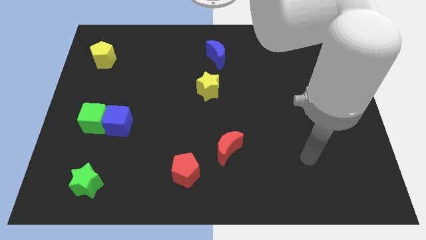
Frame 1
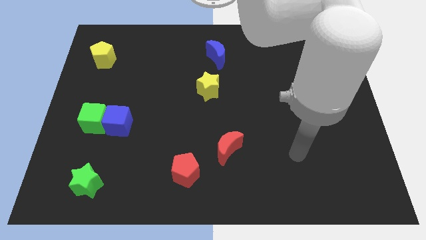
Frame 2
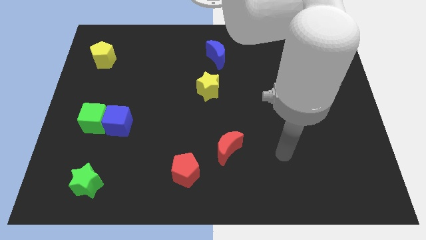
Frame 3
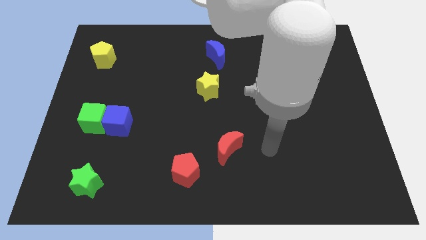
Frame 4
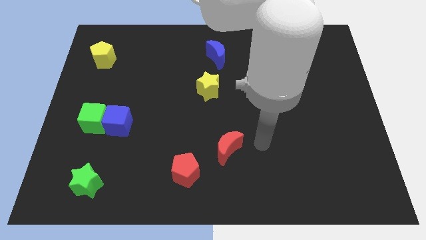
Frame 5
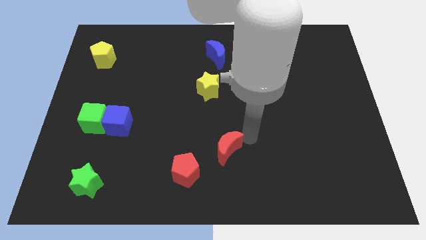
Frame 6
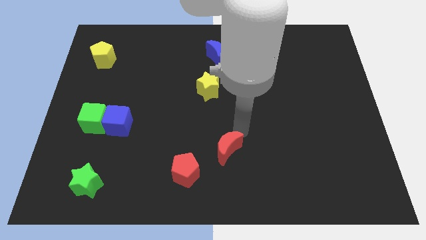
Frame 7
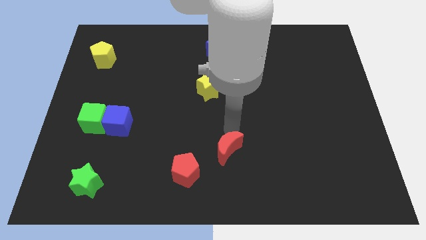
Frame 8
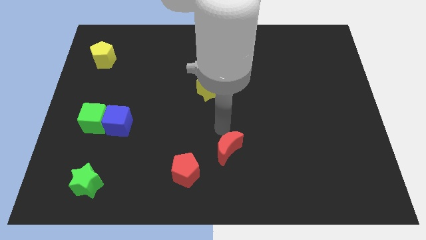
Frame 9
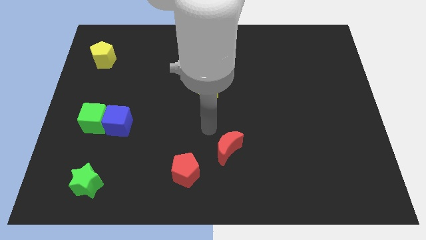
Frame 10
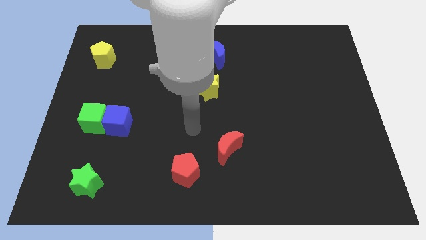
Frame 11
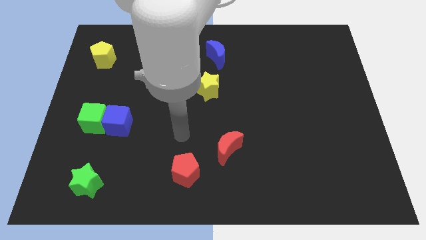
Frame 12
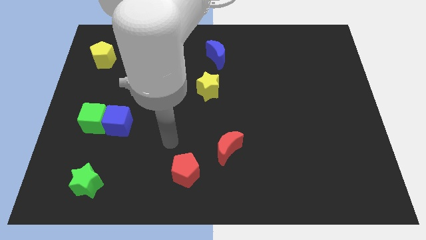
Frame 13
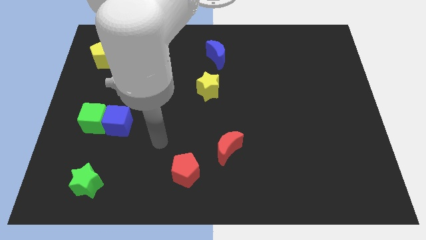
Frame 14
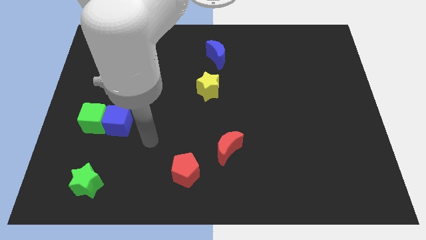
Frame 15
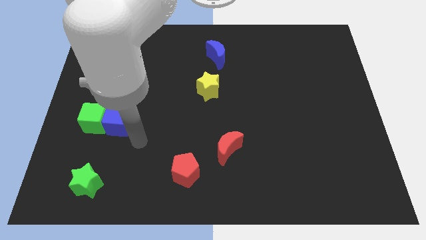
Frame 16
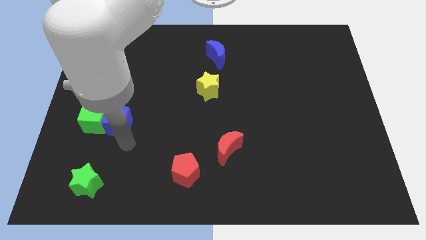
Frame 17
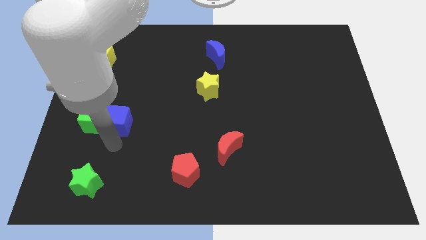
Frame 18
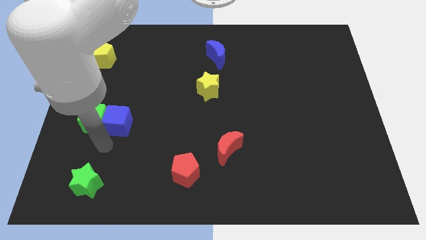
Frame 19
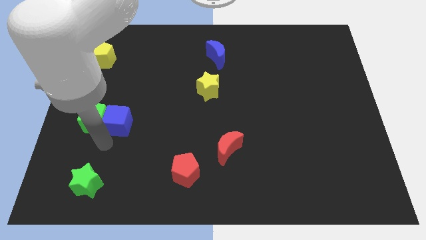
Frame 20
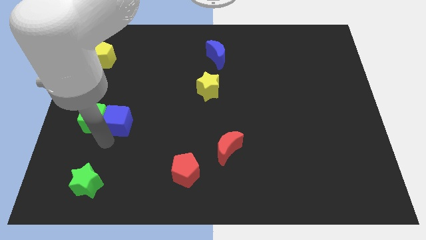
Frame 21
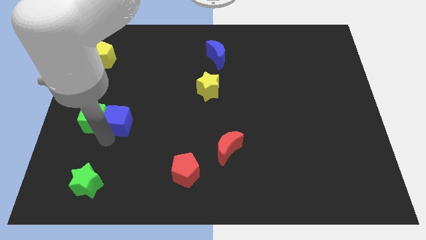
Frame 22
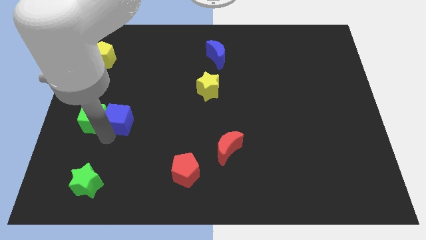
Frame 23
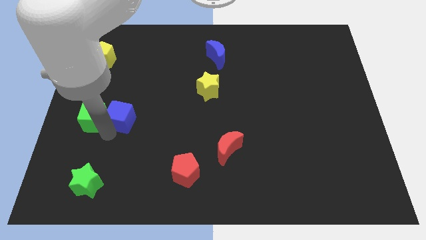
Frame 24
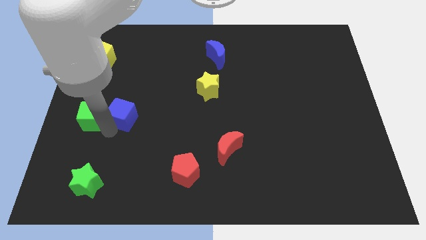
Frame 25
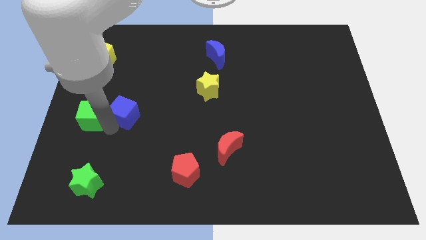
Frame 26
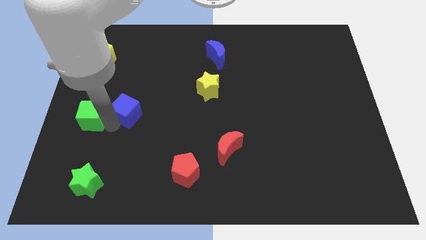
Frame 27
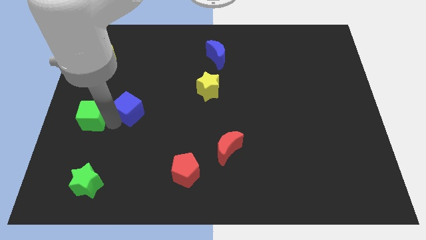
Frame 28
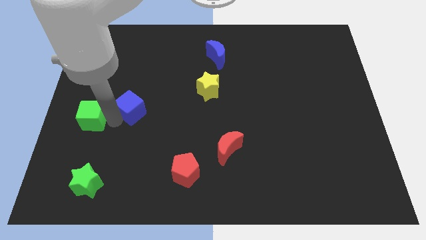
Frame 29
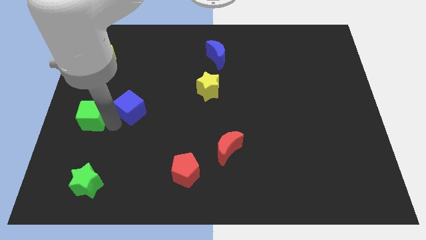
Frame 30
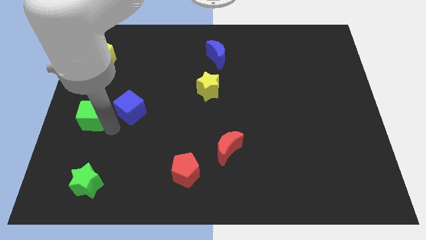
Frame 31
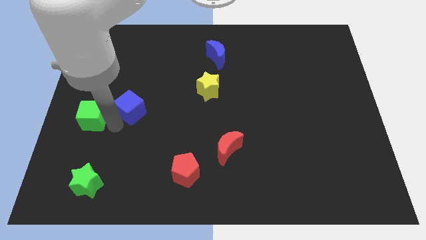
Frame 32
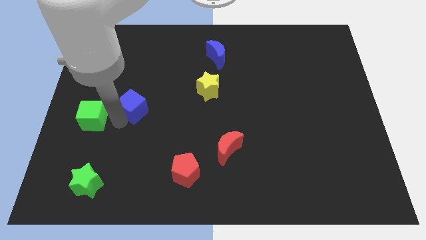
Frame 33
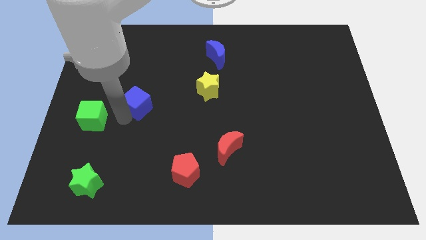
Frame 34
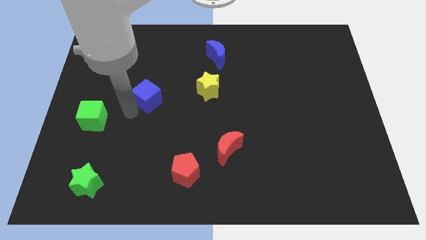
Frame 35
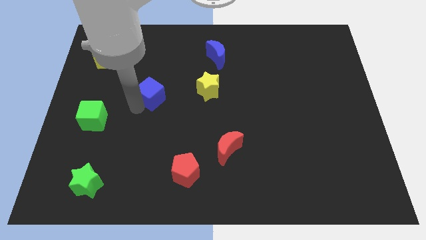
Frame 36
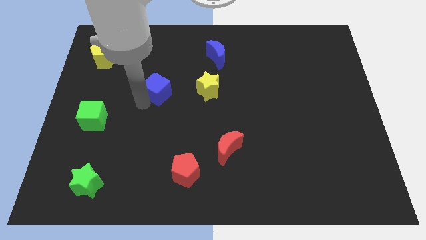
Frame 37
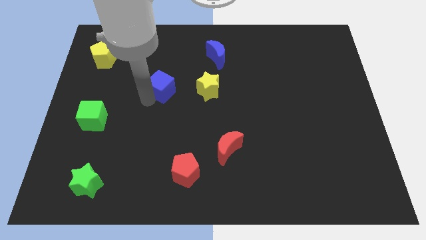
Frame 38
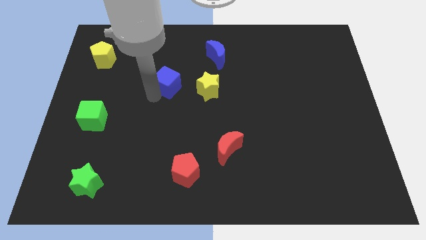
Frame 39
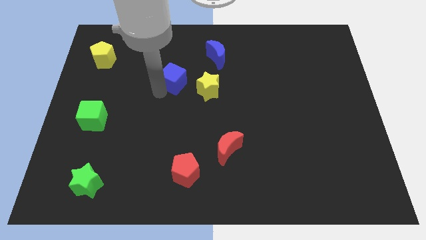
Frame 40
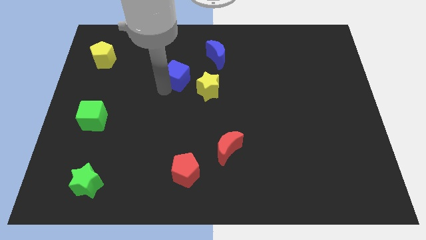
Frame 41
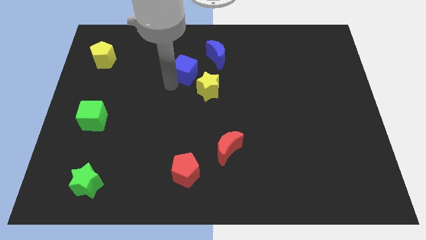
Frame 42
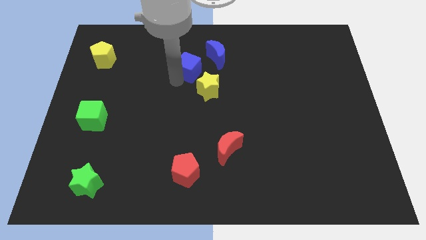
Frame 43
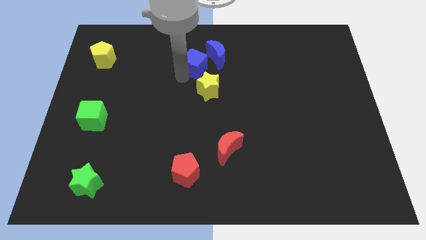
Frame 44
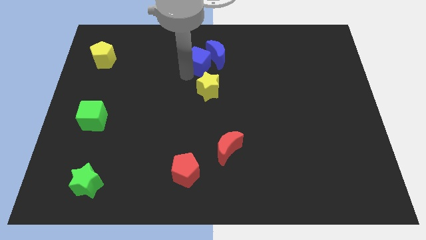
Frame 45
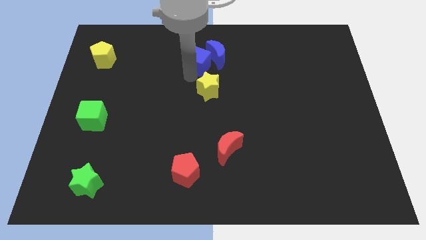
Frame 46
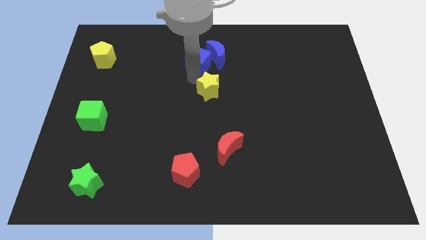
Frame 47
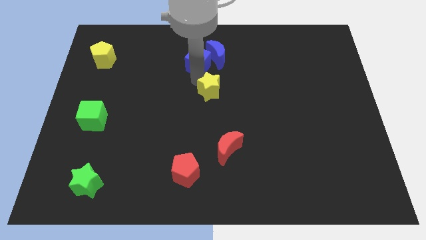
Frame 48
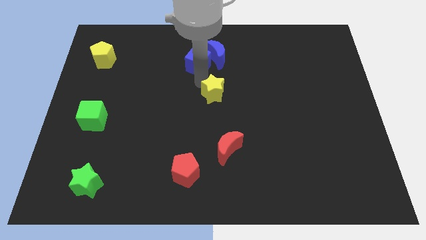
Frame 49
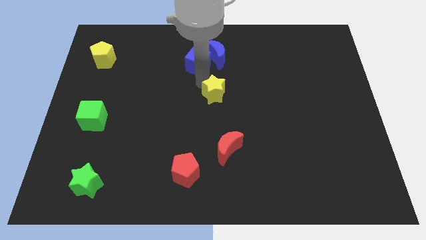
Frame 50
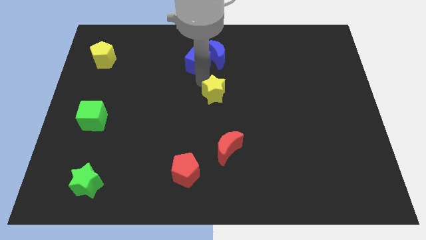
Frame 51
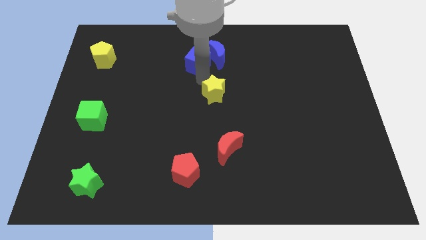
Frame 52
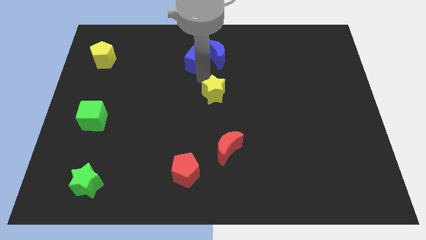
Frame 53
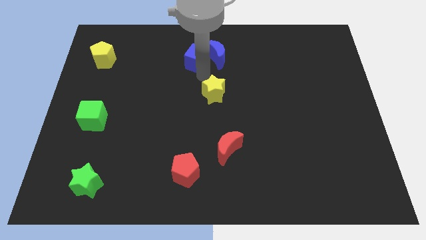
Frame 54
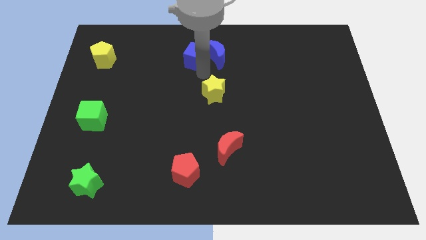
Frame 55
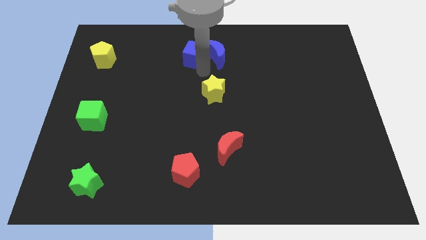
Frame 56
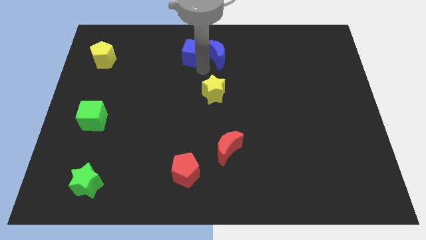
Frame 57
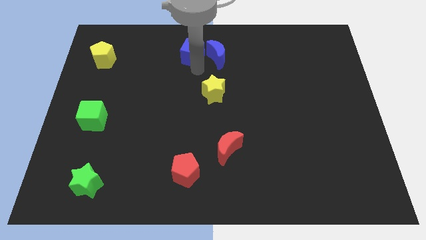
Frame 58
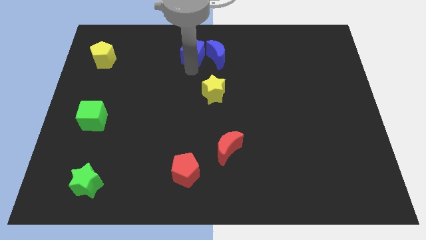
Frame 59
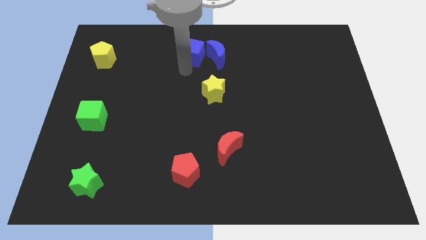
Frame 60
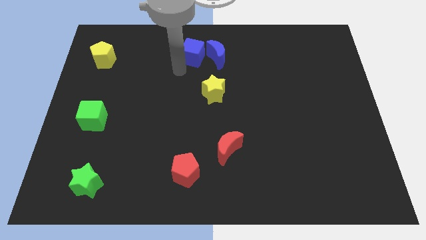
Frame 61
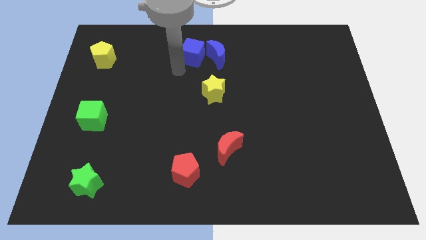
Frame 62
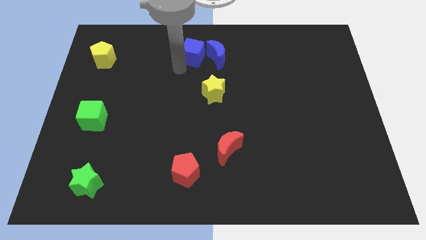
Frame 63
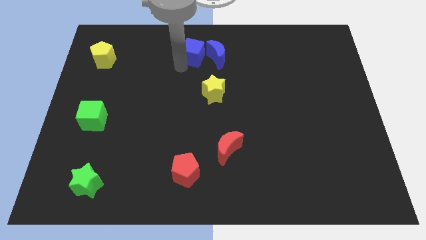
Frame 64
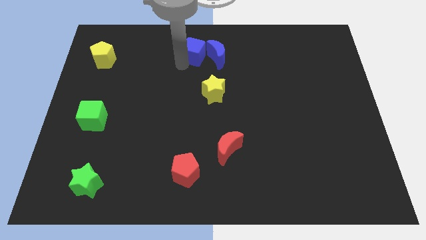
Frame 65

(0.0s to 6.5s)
put the blue cube to the top
